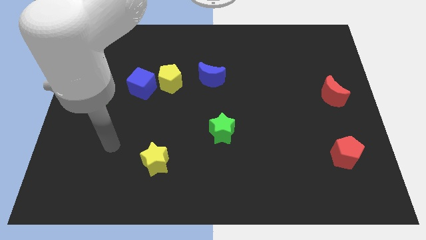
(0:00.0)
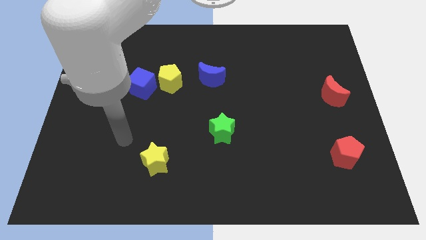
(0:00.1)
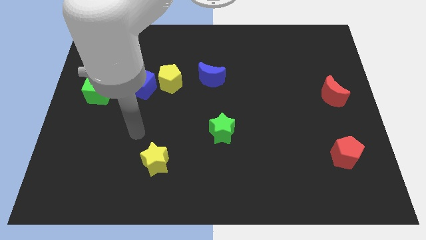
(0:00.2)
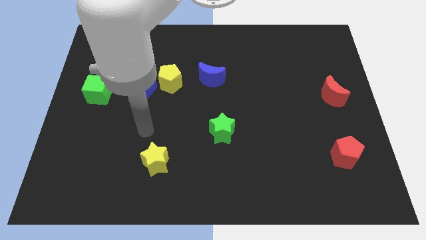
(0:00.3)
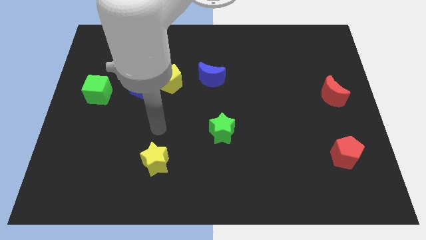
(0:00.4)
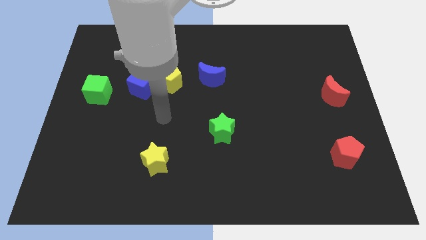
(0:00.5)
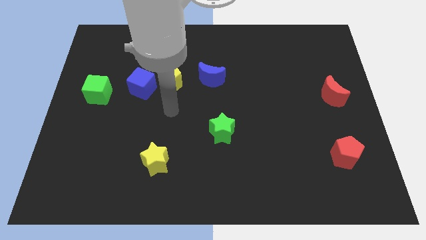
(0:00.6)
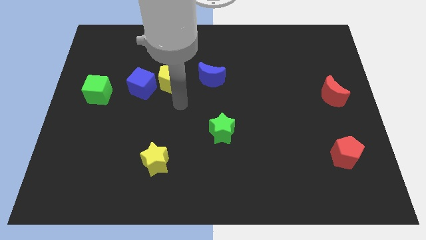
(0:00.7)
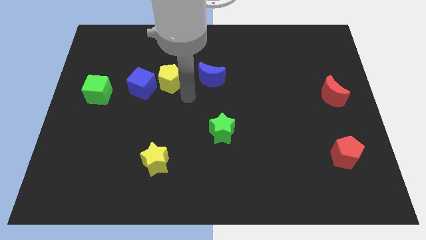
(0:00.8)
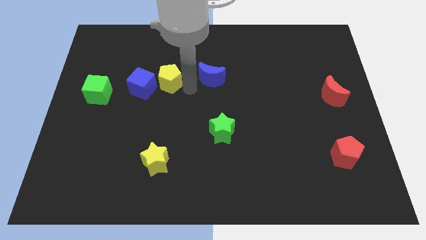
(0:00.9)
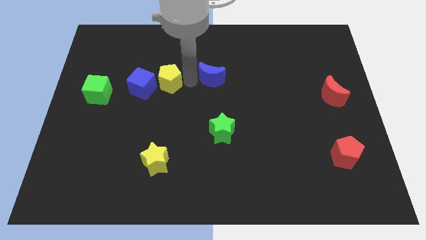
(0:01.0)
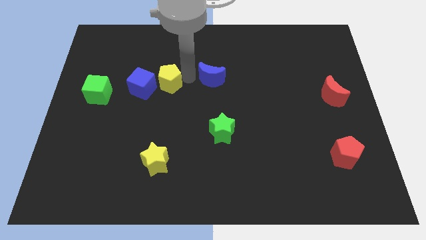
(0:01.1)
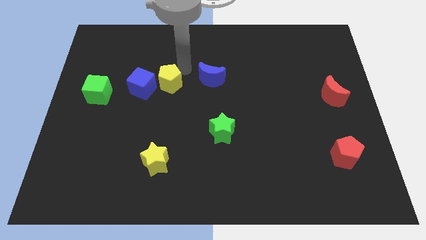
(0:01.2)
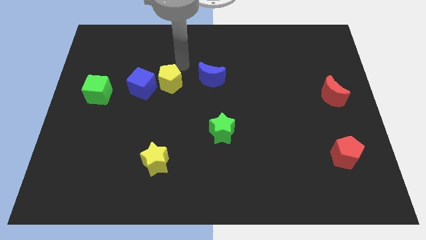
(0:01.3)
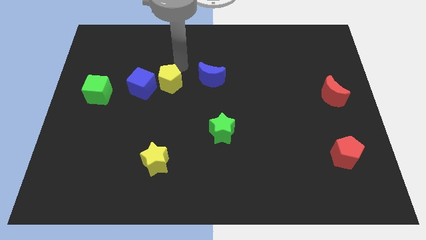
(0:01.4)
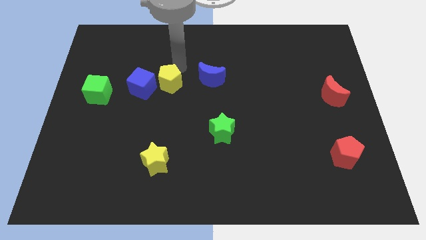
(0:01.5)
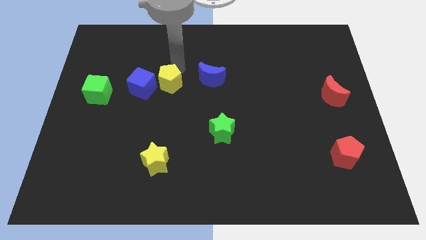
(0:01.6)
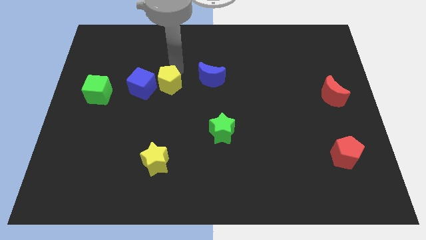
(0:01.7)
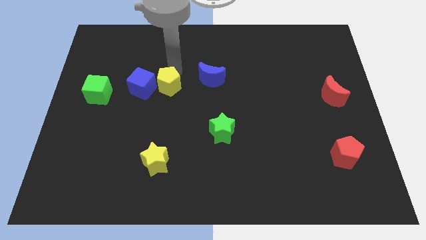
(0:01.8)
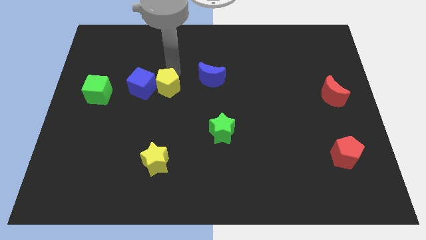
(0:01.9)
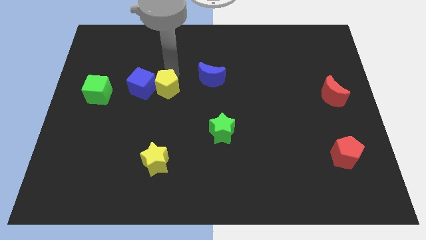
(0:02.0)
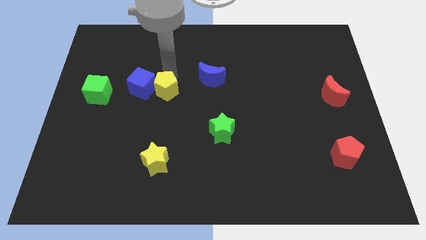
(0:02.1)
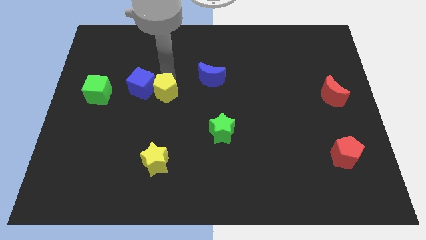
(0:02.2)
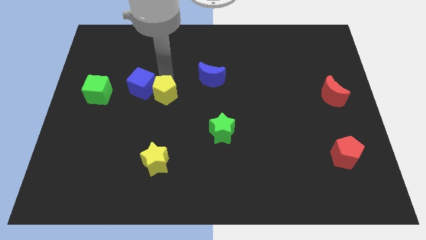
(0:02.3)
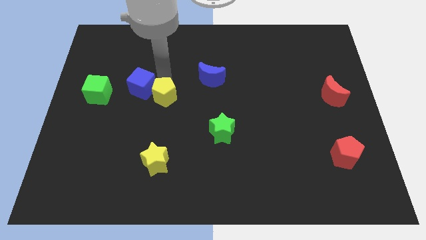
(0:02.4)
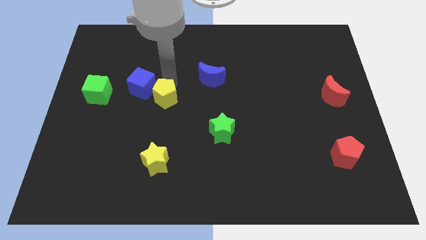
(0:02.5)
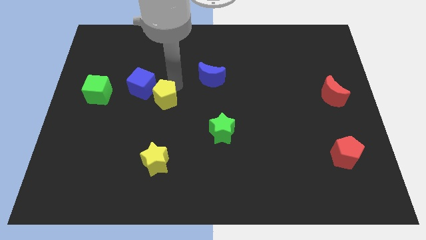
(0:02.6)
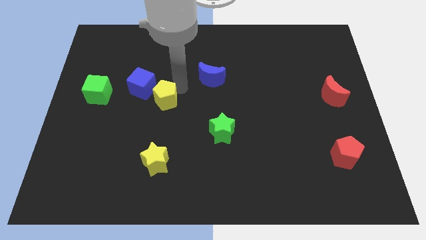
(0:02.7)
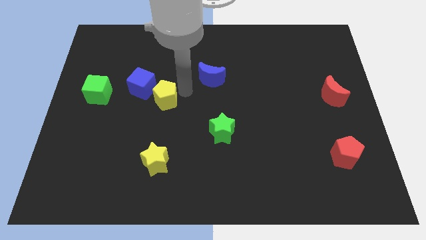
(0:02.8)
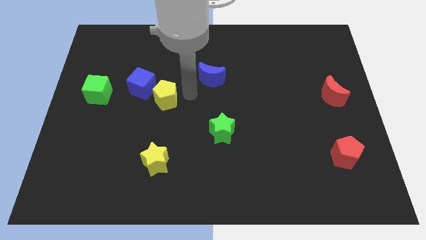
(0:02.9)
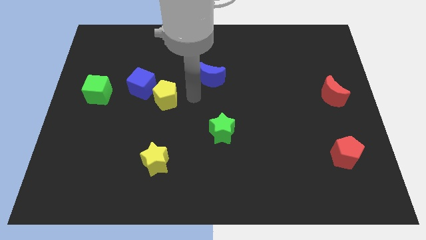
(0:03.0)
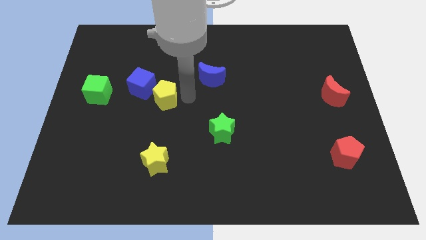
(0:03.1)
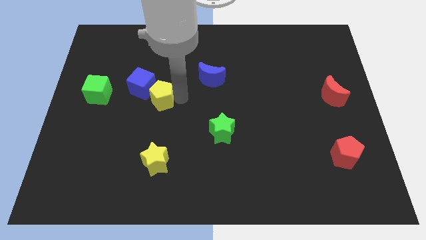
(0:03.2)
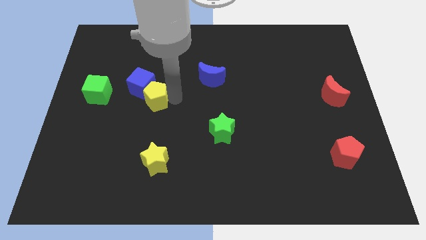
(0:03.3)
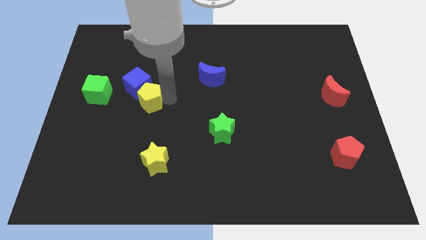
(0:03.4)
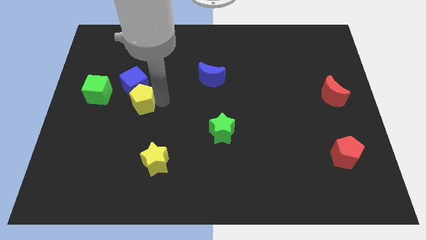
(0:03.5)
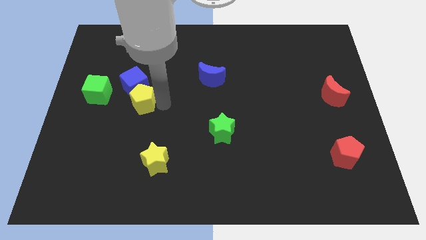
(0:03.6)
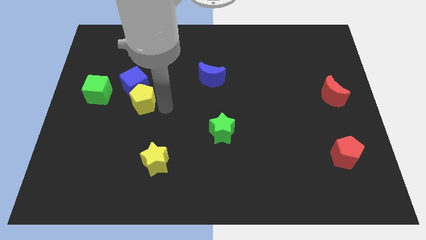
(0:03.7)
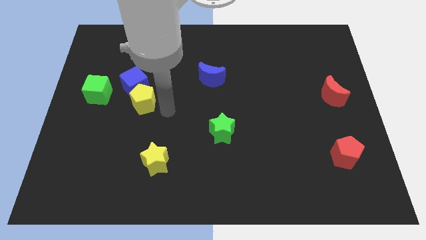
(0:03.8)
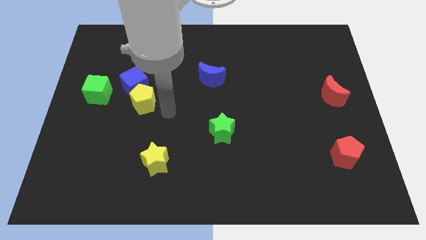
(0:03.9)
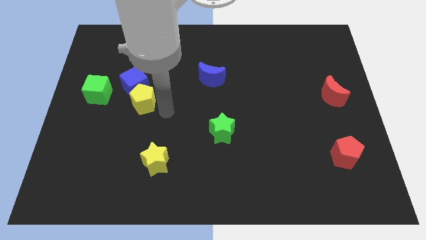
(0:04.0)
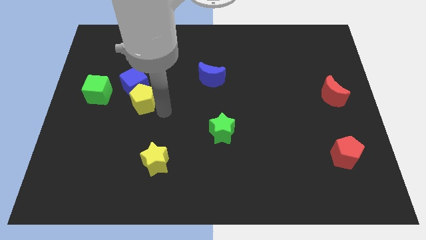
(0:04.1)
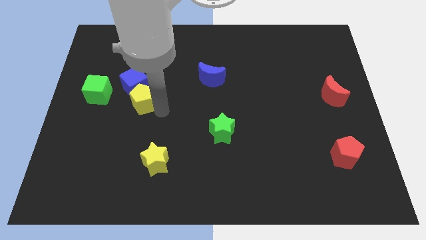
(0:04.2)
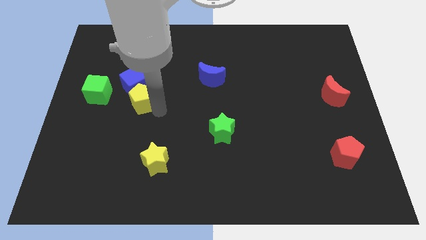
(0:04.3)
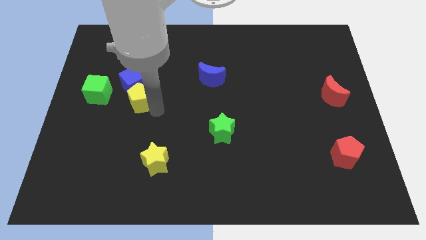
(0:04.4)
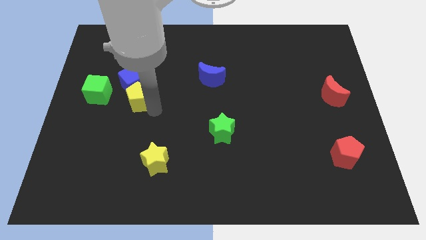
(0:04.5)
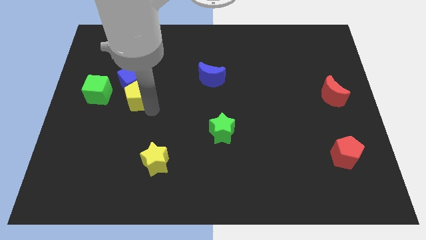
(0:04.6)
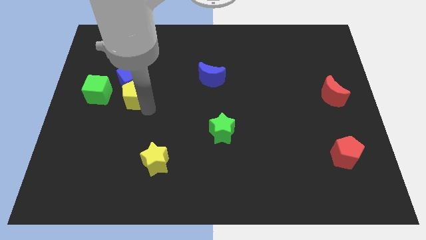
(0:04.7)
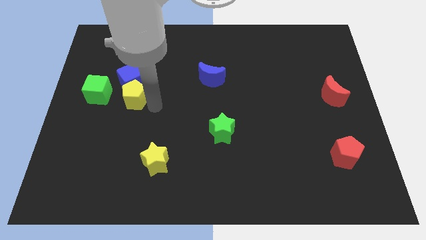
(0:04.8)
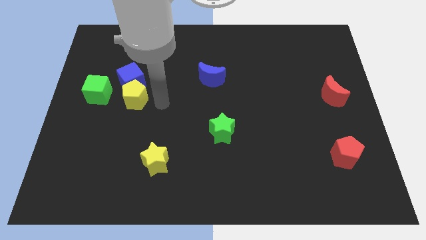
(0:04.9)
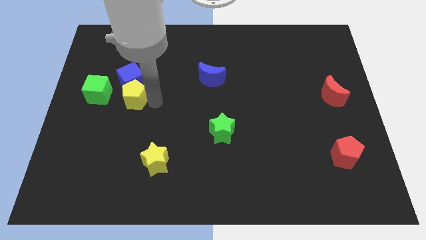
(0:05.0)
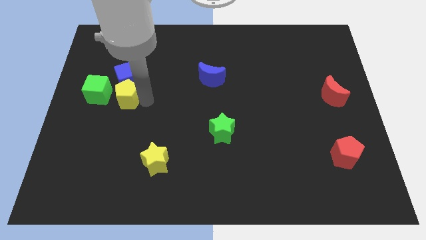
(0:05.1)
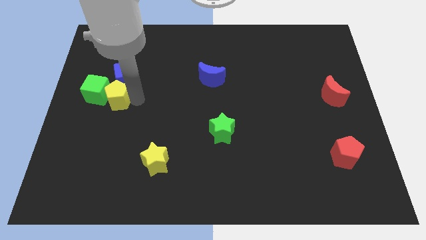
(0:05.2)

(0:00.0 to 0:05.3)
move the yellow pentagon close to the green cube

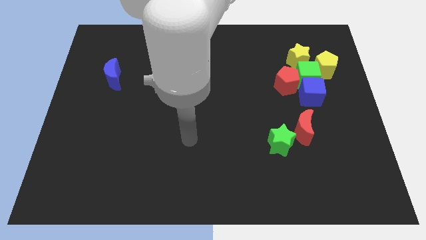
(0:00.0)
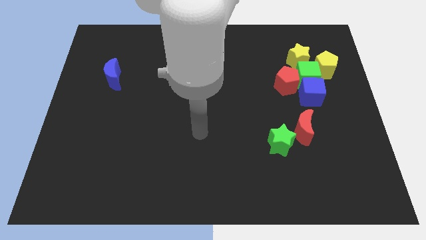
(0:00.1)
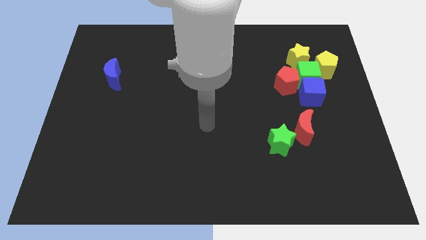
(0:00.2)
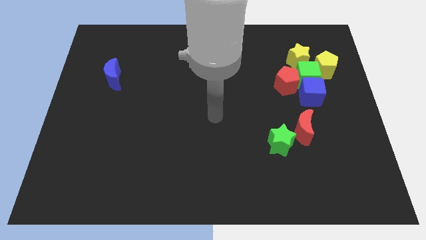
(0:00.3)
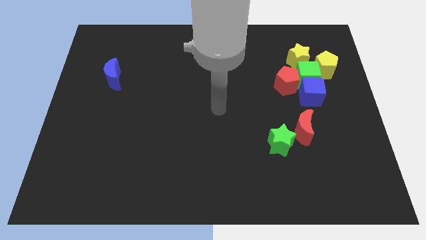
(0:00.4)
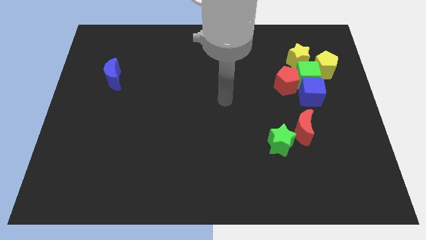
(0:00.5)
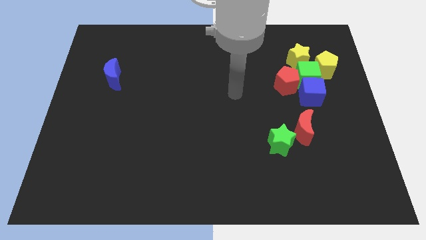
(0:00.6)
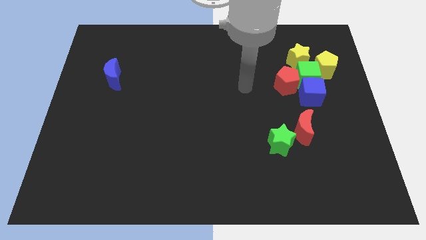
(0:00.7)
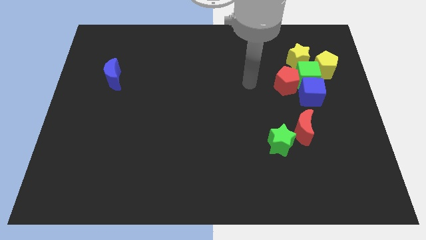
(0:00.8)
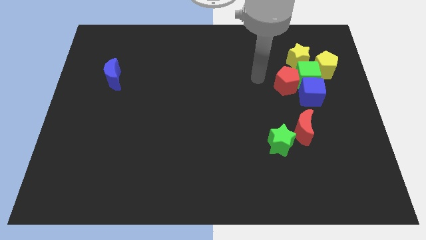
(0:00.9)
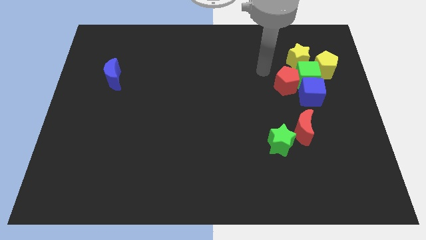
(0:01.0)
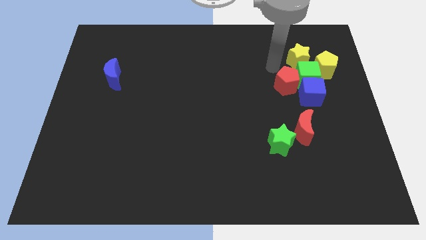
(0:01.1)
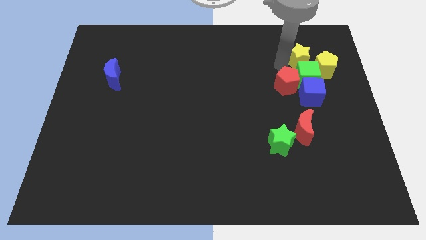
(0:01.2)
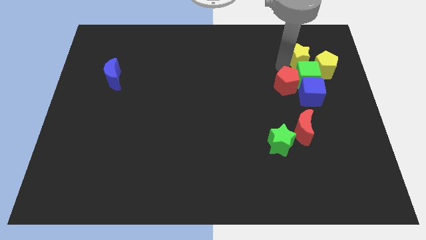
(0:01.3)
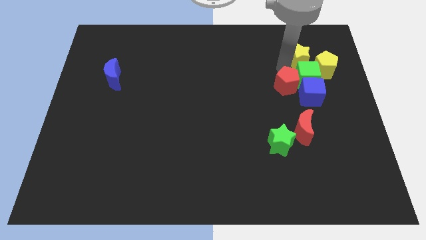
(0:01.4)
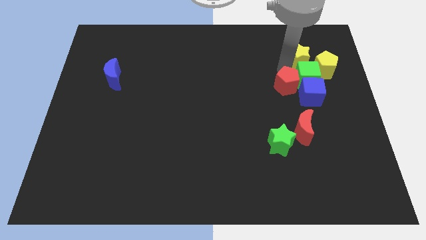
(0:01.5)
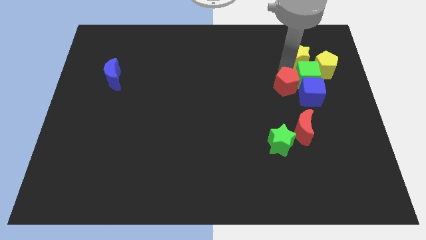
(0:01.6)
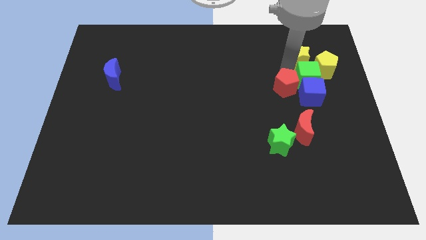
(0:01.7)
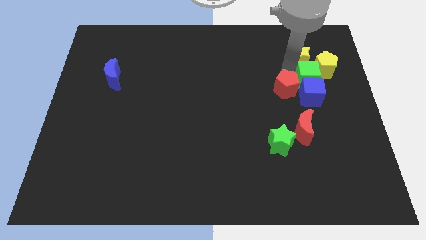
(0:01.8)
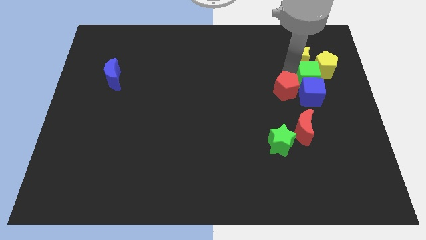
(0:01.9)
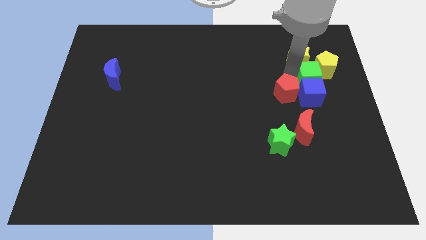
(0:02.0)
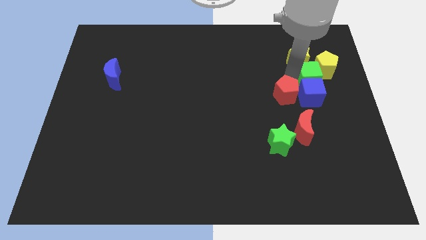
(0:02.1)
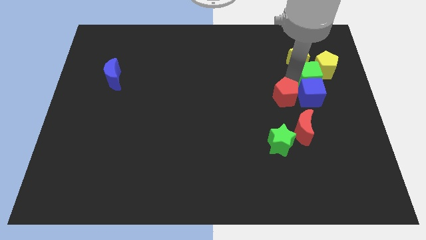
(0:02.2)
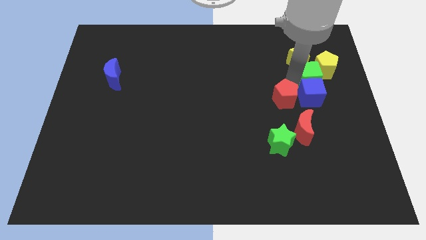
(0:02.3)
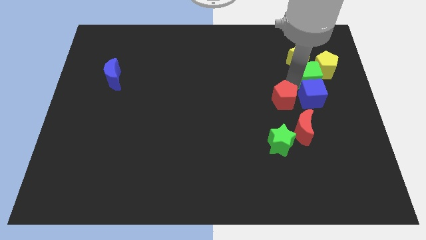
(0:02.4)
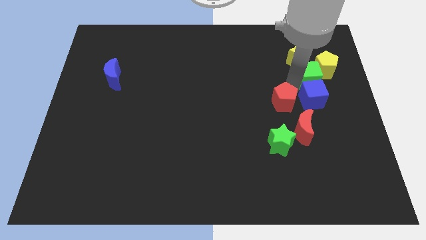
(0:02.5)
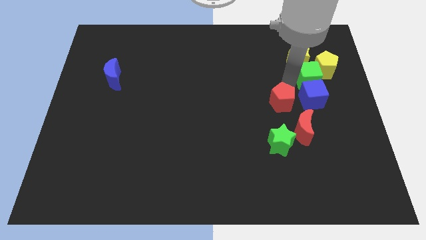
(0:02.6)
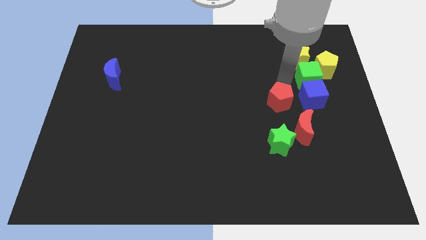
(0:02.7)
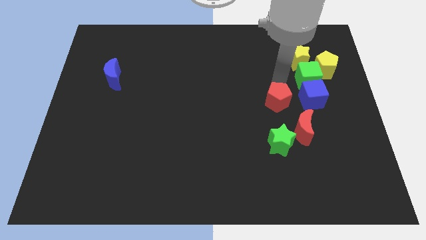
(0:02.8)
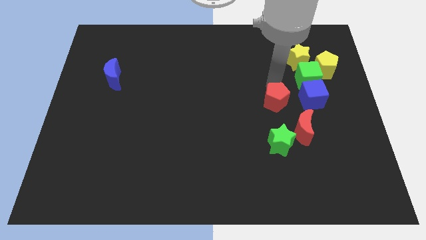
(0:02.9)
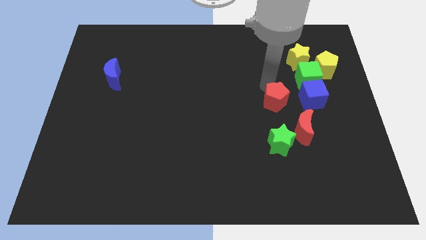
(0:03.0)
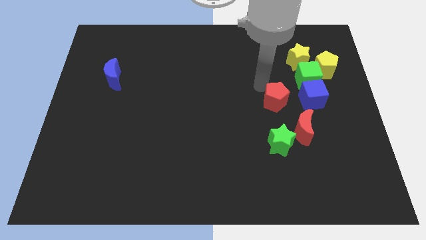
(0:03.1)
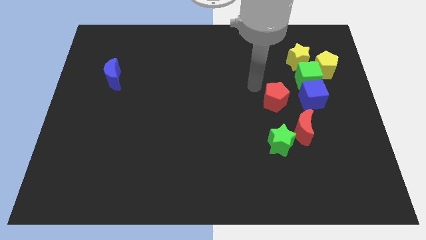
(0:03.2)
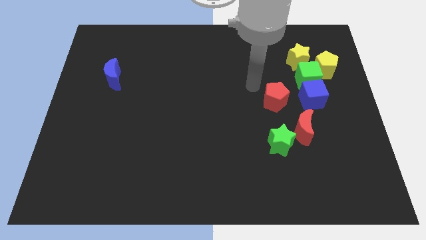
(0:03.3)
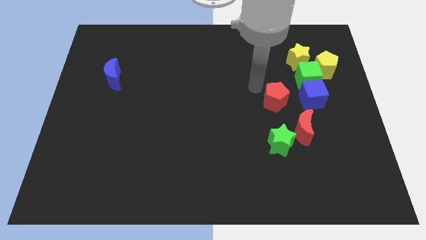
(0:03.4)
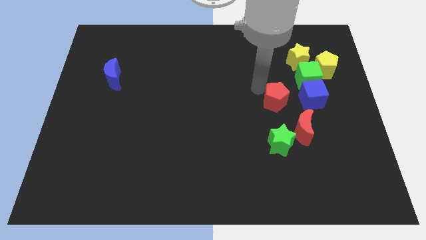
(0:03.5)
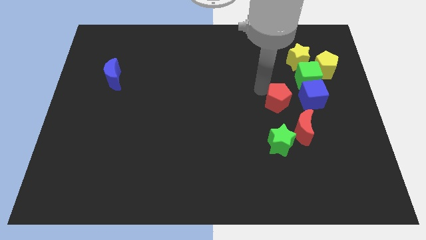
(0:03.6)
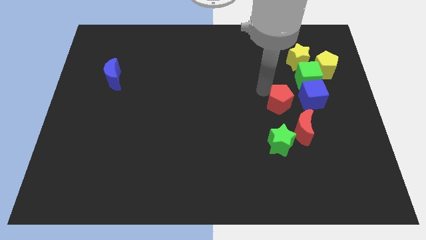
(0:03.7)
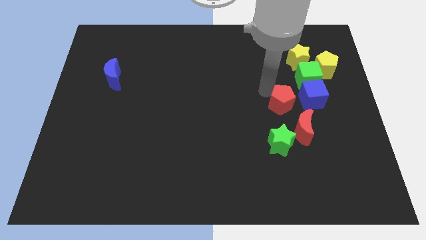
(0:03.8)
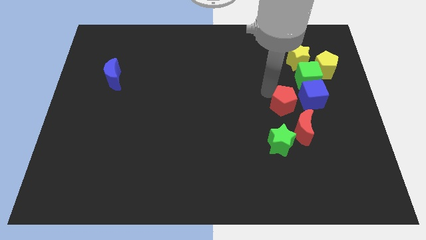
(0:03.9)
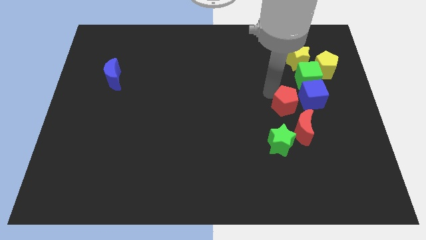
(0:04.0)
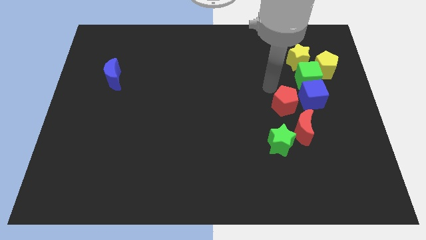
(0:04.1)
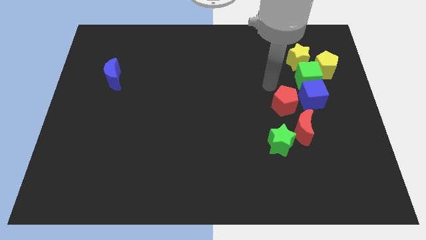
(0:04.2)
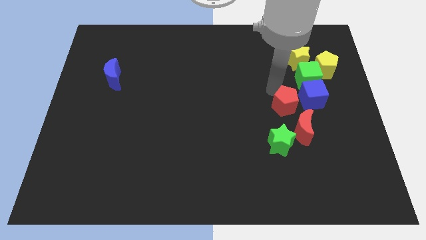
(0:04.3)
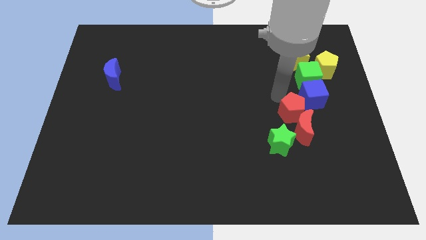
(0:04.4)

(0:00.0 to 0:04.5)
put the red pentagon to the red moon
